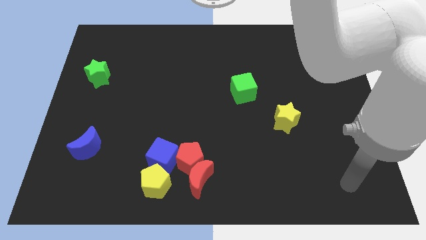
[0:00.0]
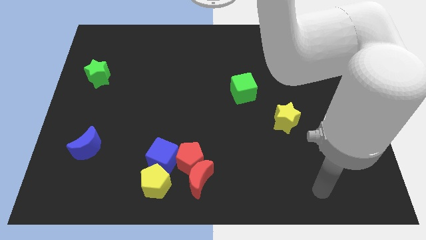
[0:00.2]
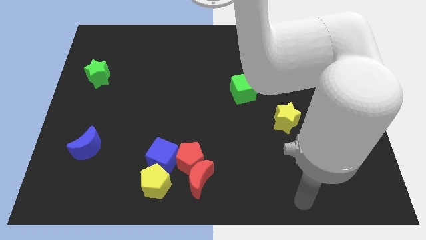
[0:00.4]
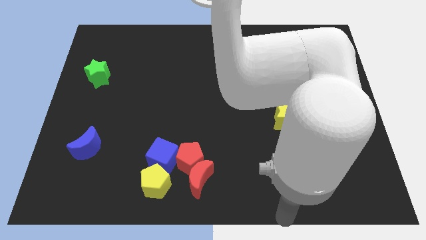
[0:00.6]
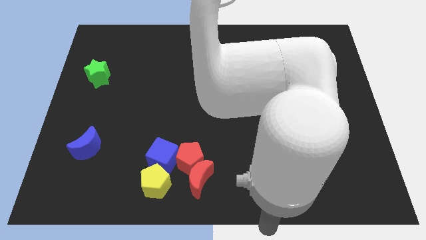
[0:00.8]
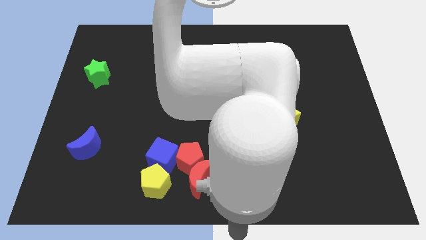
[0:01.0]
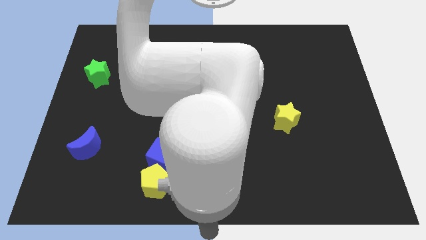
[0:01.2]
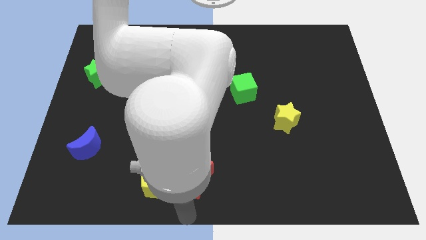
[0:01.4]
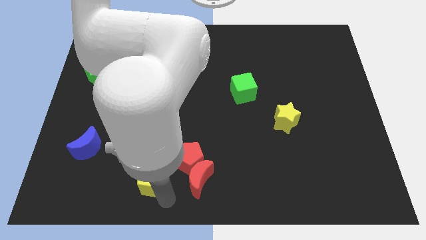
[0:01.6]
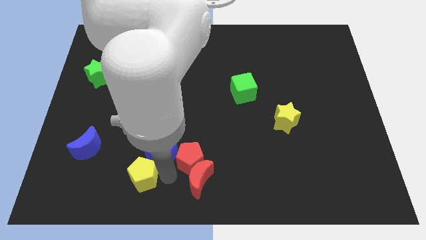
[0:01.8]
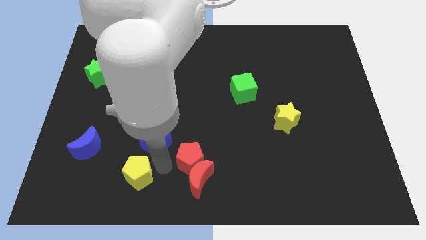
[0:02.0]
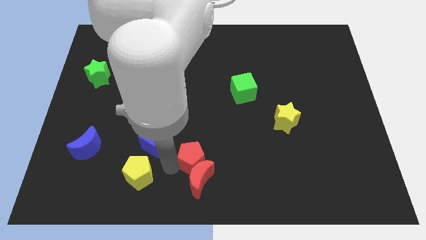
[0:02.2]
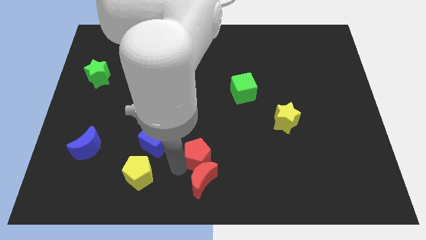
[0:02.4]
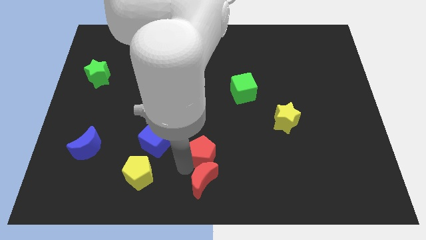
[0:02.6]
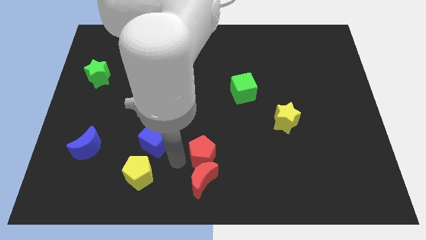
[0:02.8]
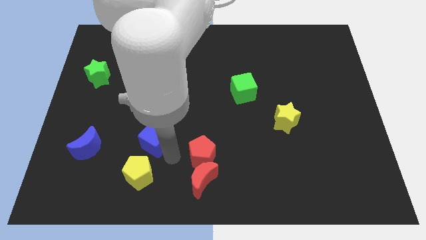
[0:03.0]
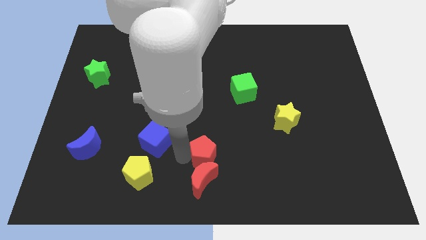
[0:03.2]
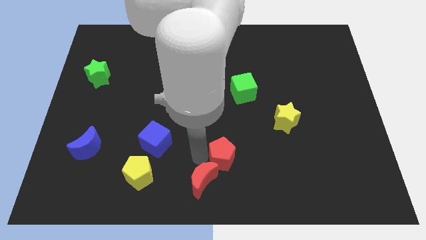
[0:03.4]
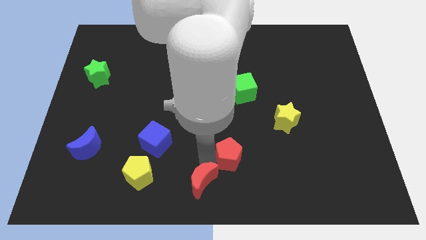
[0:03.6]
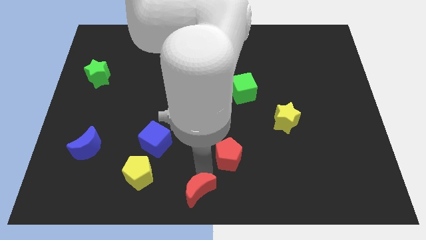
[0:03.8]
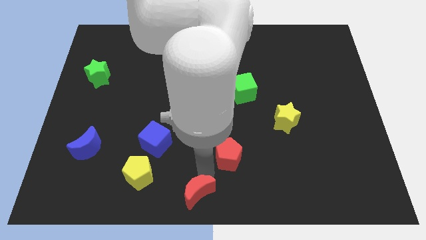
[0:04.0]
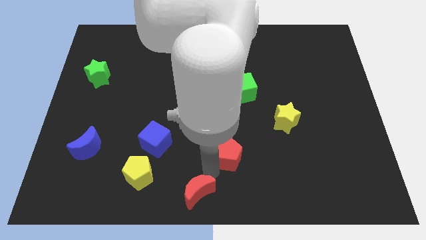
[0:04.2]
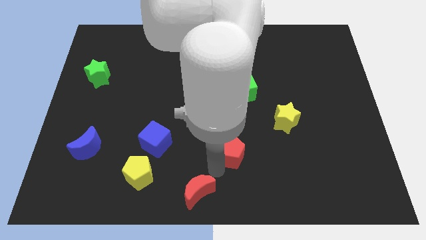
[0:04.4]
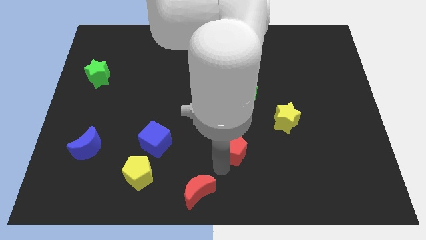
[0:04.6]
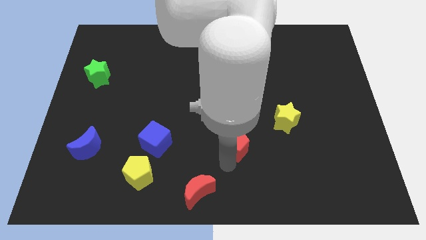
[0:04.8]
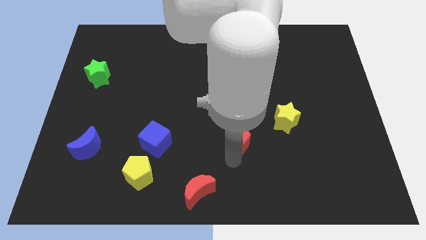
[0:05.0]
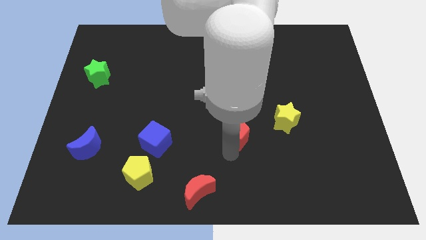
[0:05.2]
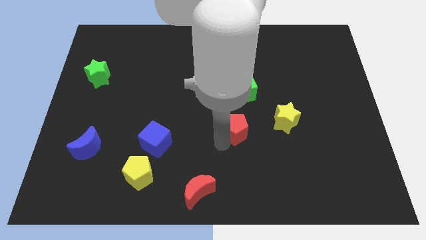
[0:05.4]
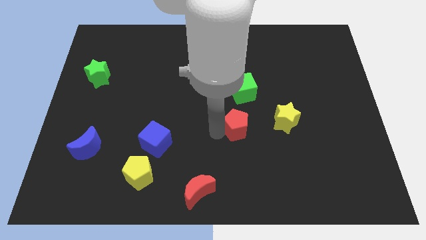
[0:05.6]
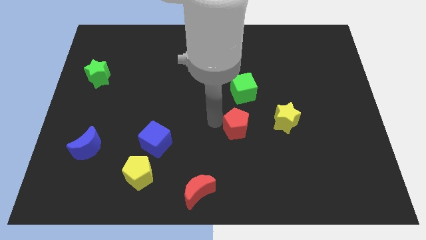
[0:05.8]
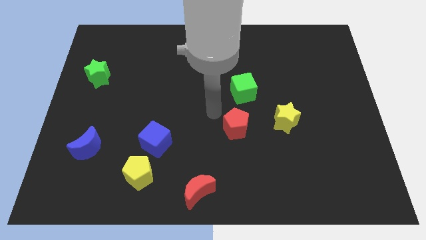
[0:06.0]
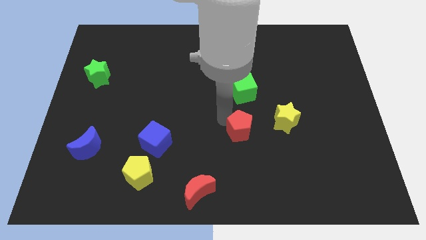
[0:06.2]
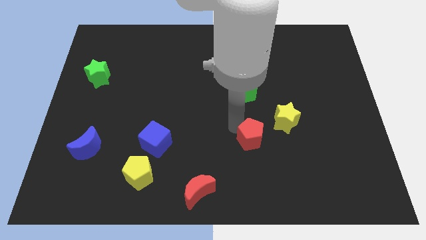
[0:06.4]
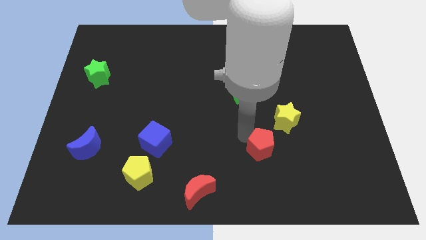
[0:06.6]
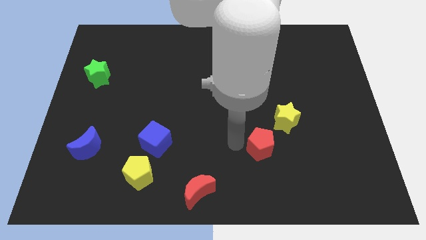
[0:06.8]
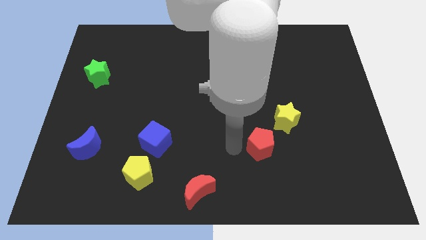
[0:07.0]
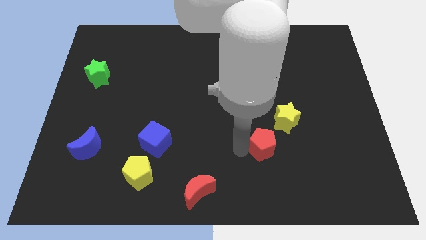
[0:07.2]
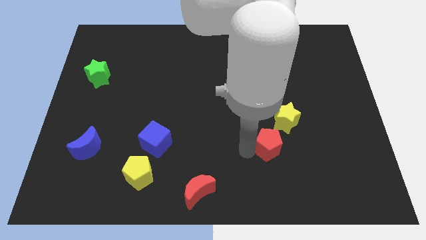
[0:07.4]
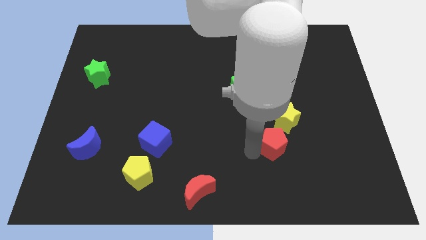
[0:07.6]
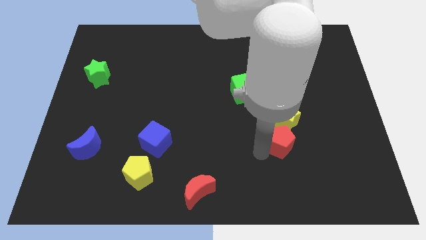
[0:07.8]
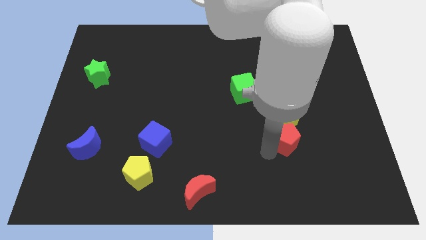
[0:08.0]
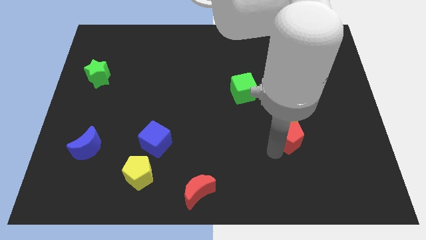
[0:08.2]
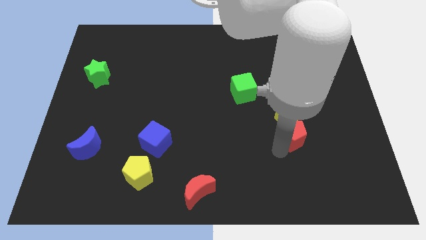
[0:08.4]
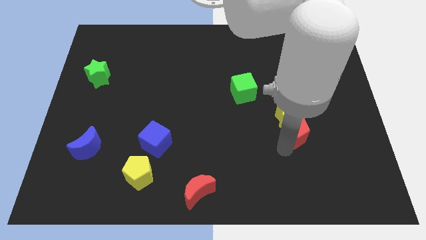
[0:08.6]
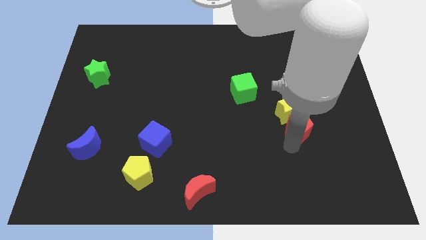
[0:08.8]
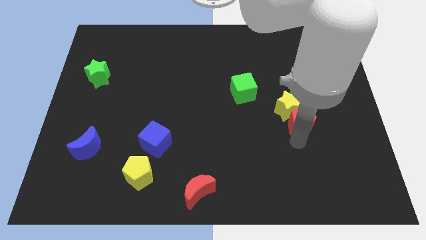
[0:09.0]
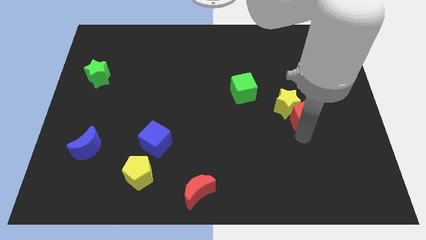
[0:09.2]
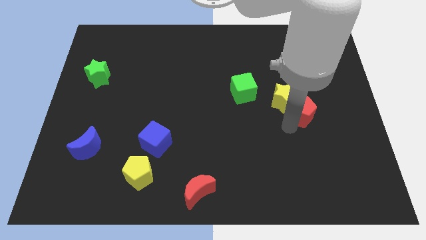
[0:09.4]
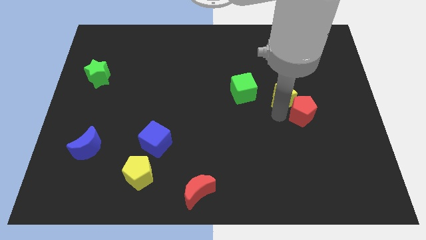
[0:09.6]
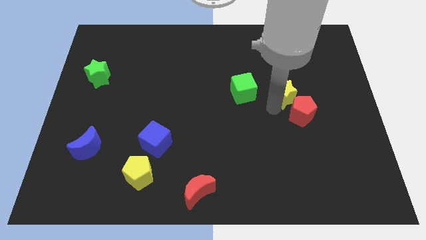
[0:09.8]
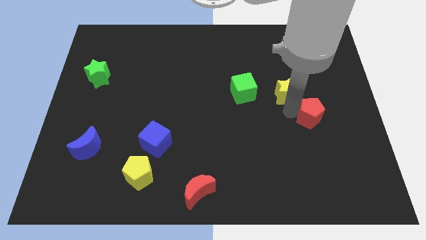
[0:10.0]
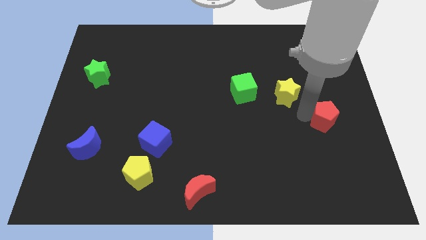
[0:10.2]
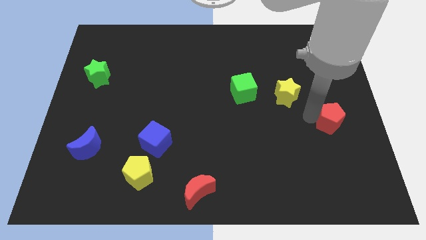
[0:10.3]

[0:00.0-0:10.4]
put the red pentagon to the center right
